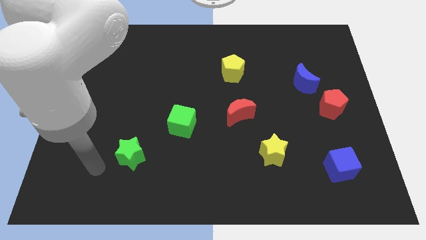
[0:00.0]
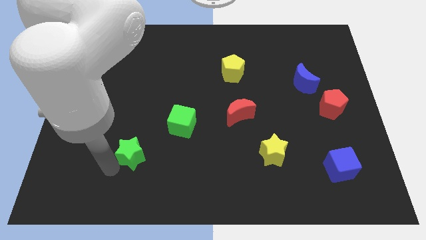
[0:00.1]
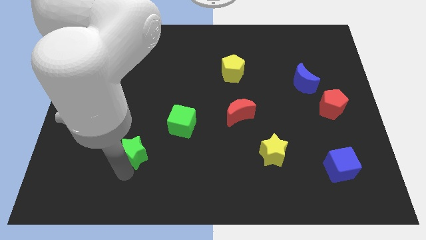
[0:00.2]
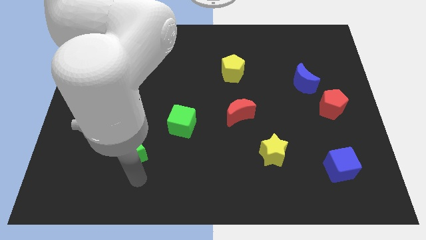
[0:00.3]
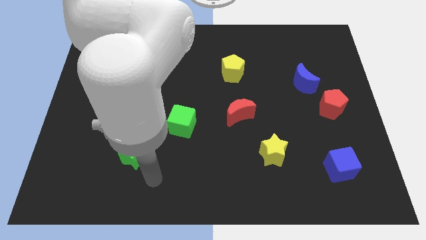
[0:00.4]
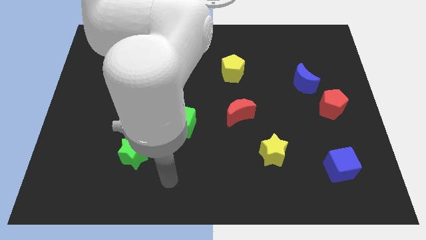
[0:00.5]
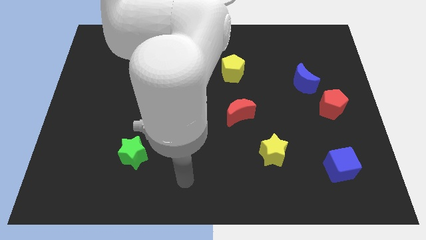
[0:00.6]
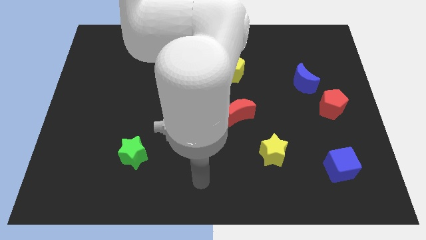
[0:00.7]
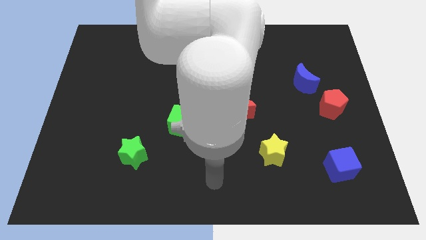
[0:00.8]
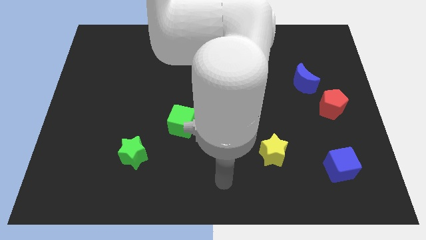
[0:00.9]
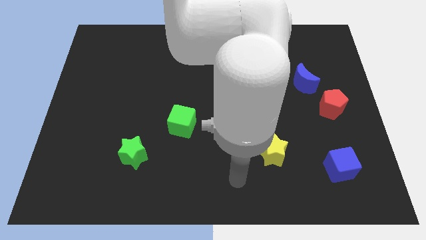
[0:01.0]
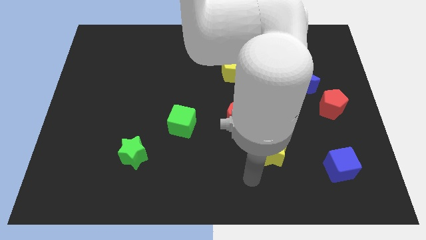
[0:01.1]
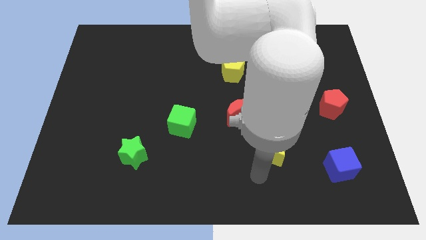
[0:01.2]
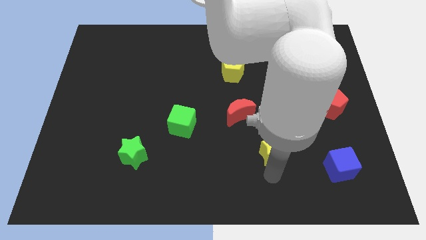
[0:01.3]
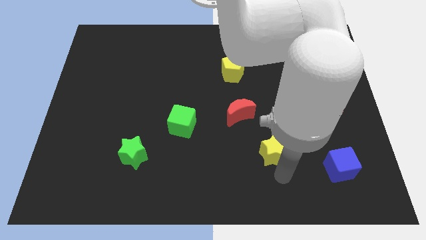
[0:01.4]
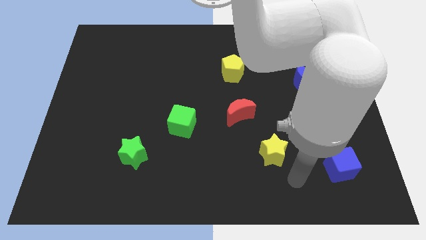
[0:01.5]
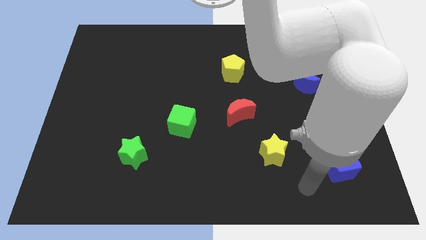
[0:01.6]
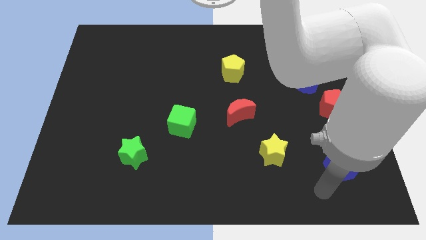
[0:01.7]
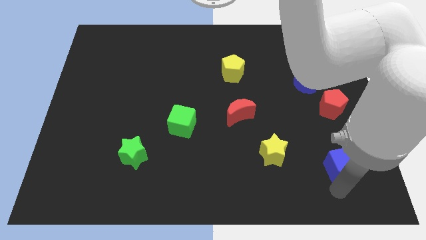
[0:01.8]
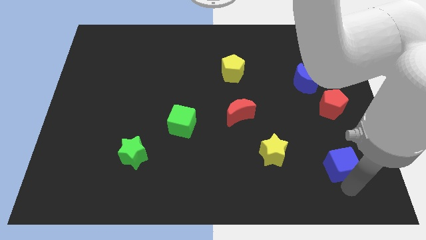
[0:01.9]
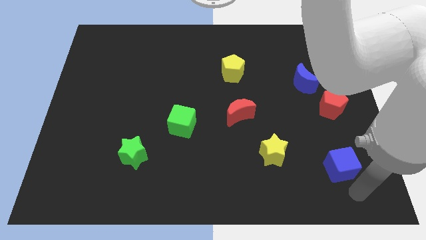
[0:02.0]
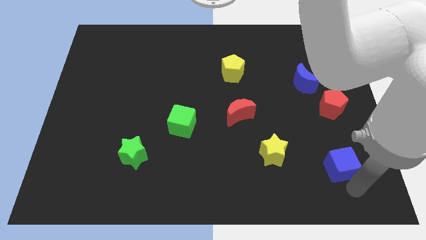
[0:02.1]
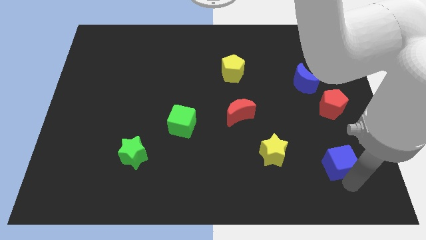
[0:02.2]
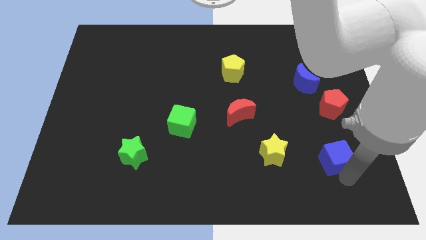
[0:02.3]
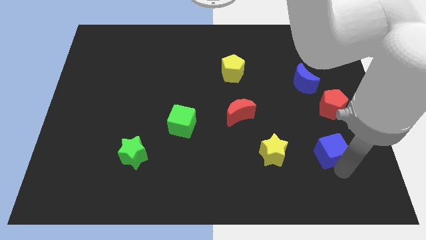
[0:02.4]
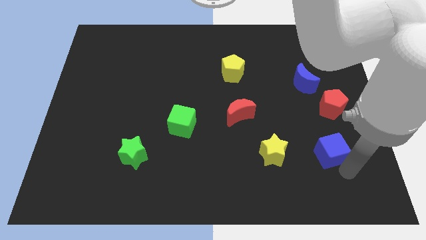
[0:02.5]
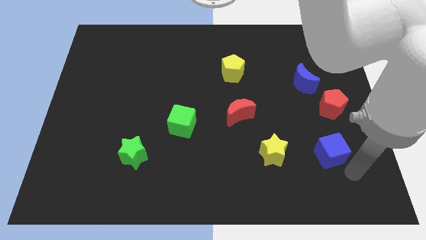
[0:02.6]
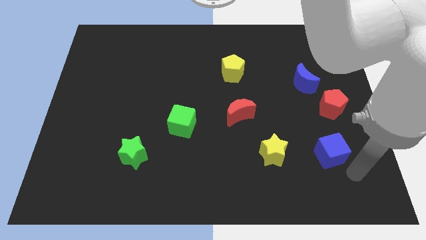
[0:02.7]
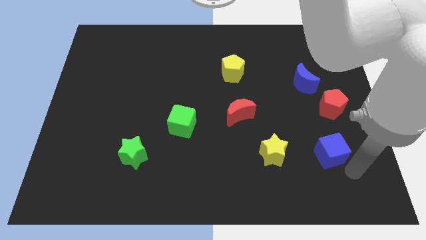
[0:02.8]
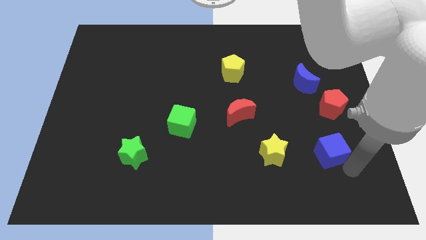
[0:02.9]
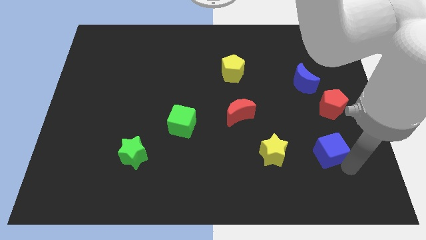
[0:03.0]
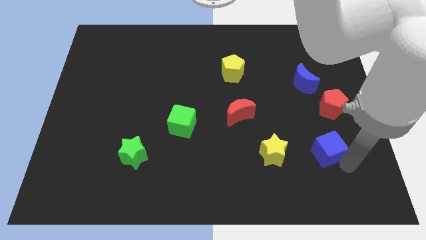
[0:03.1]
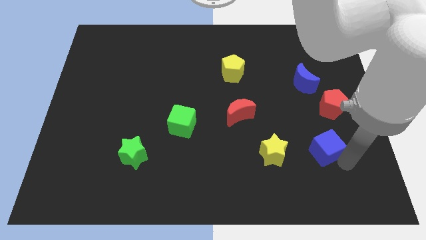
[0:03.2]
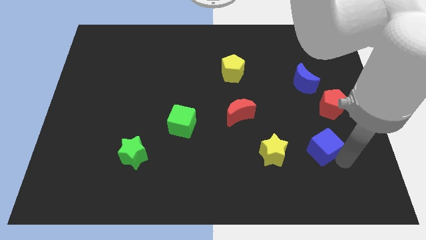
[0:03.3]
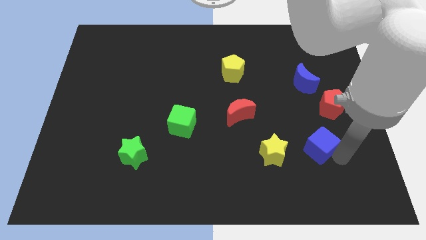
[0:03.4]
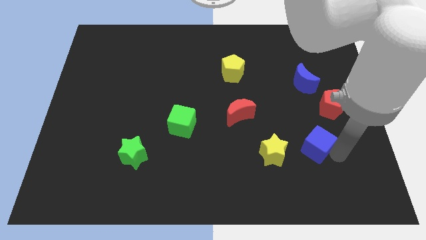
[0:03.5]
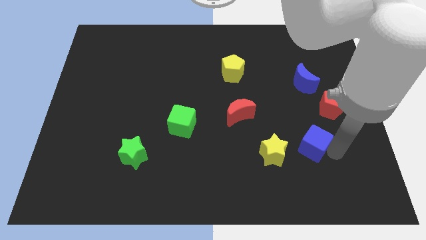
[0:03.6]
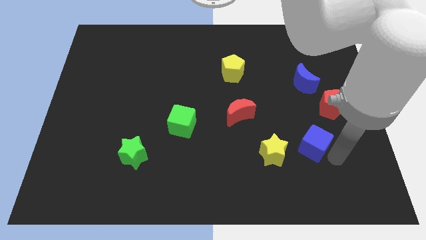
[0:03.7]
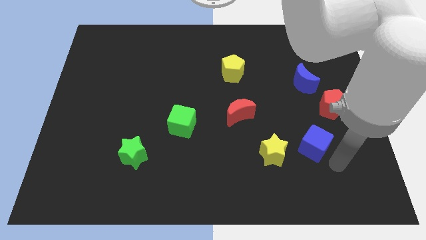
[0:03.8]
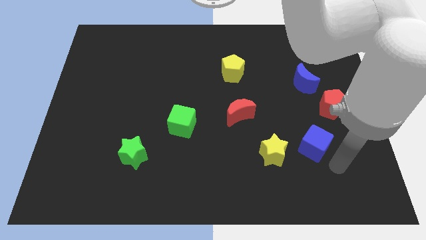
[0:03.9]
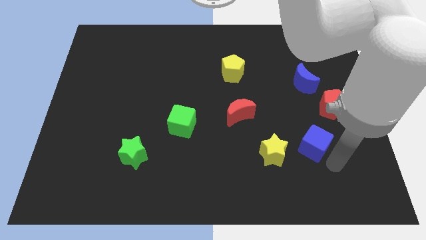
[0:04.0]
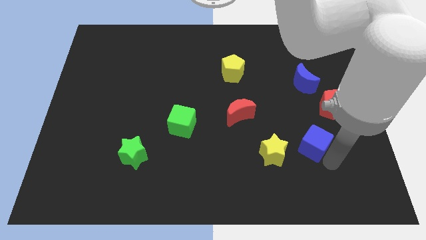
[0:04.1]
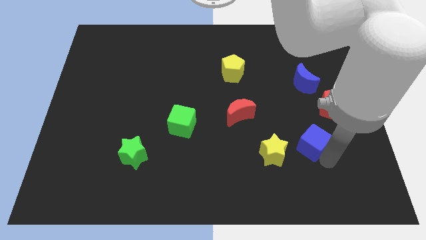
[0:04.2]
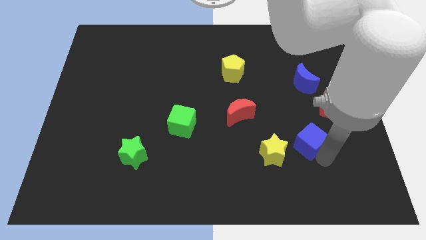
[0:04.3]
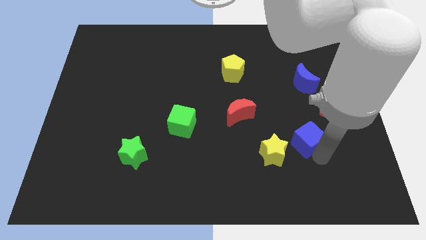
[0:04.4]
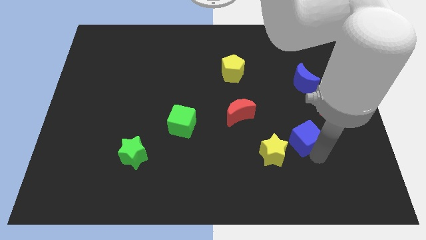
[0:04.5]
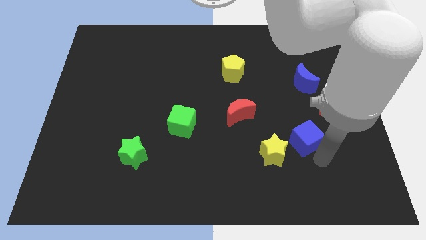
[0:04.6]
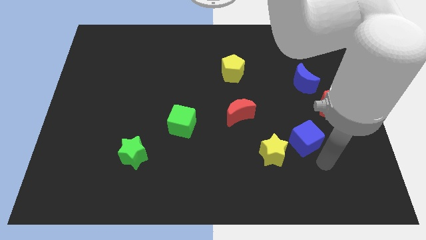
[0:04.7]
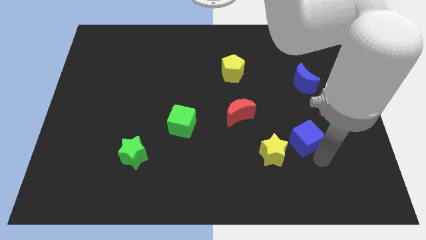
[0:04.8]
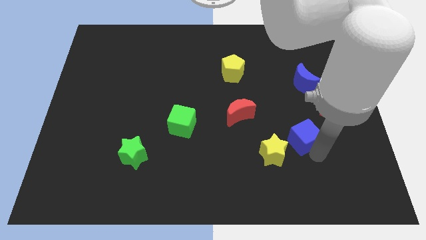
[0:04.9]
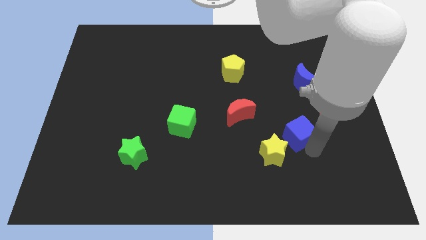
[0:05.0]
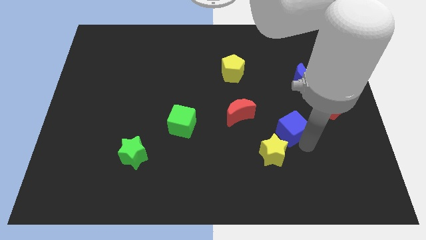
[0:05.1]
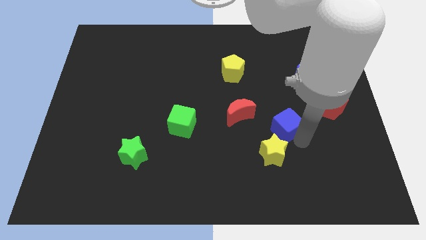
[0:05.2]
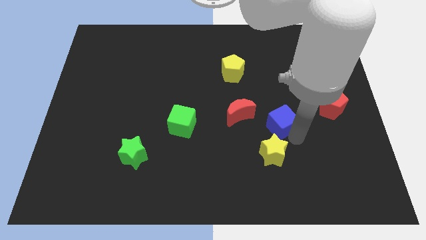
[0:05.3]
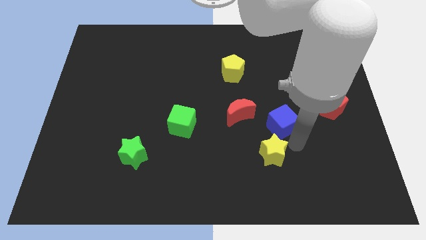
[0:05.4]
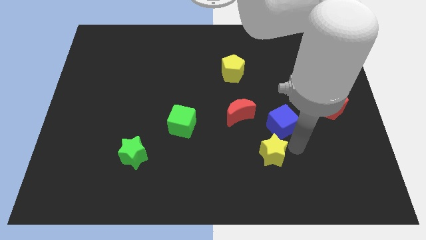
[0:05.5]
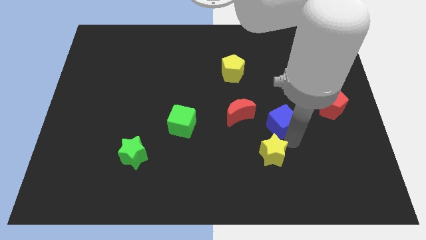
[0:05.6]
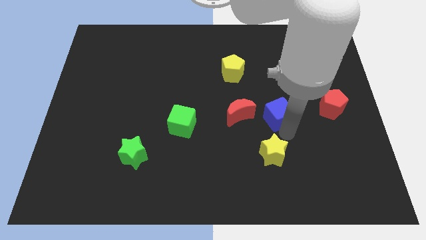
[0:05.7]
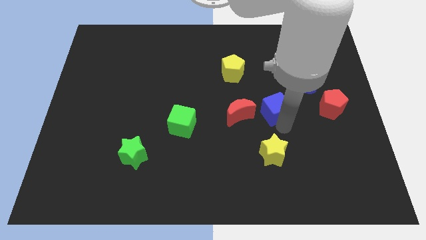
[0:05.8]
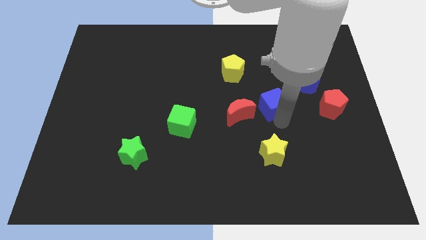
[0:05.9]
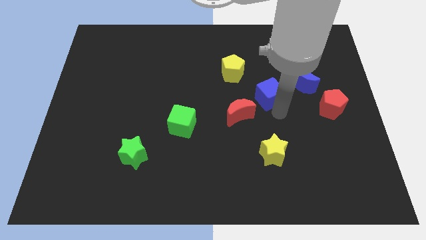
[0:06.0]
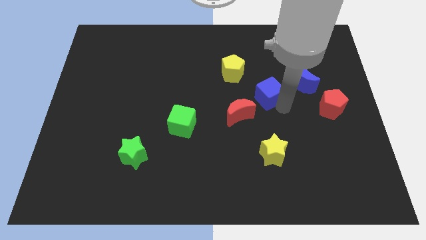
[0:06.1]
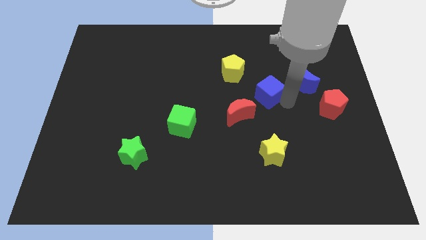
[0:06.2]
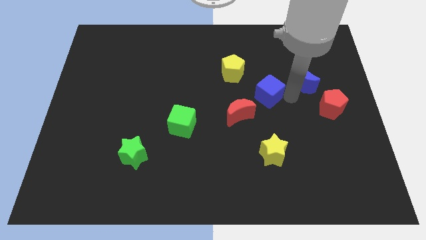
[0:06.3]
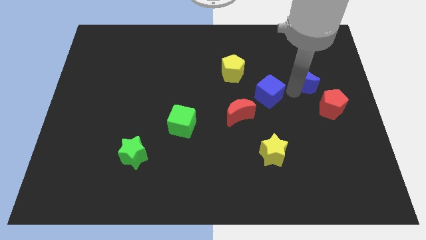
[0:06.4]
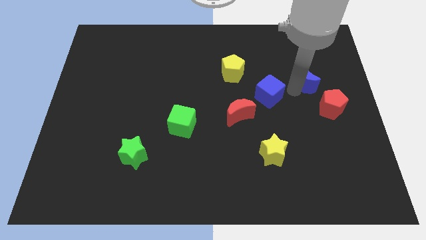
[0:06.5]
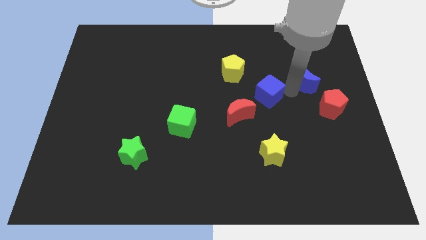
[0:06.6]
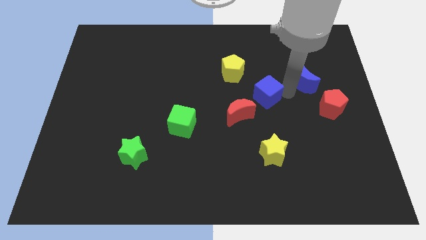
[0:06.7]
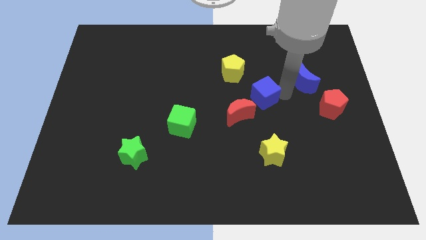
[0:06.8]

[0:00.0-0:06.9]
put the blue cube to the middle
